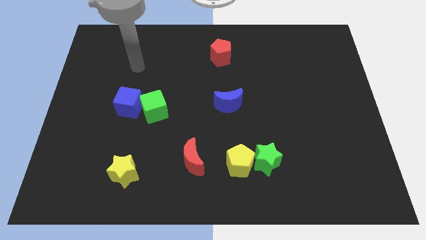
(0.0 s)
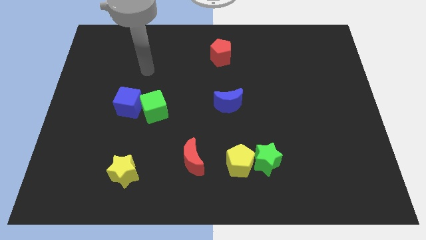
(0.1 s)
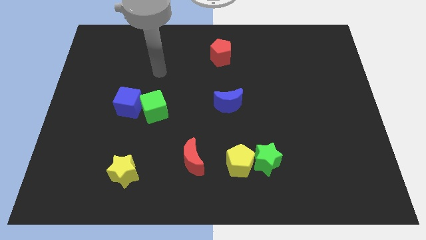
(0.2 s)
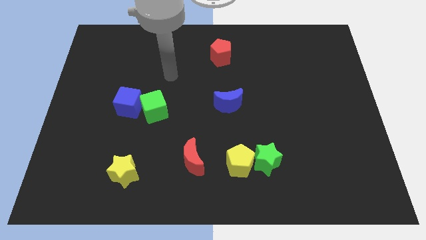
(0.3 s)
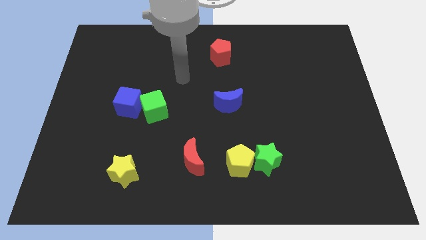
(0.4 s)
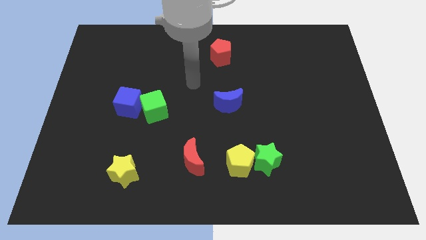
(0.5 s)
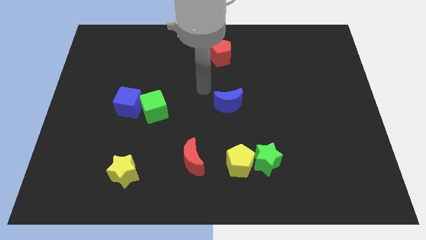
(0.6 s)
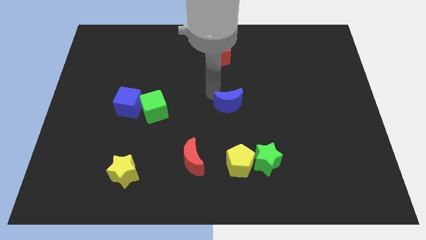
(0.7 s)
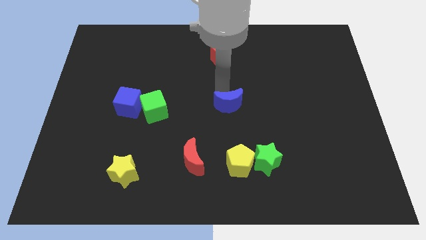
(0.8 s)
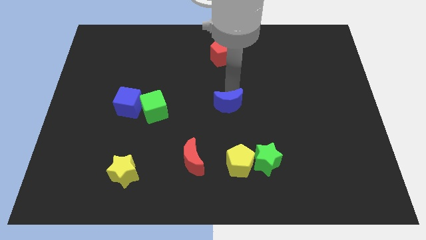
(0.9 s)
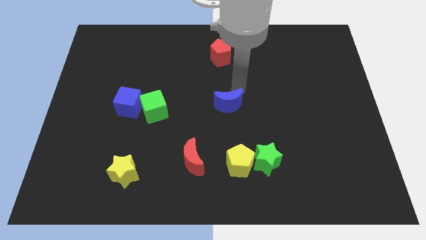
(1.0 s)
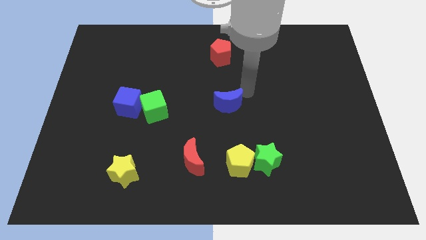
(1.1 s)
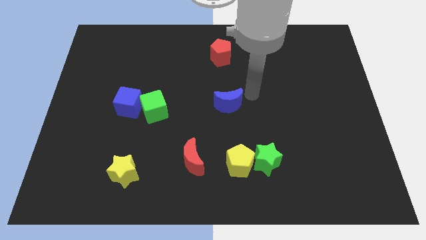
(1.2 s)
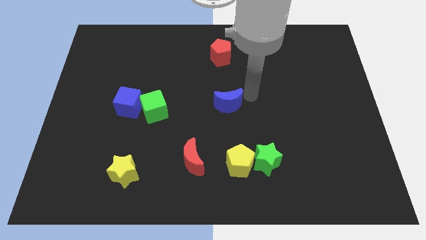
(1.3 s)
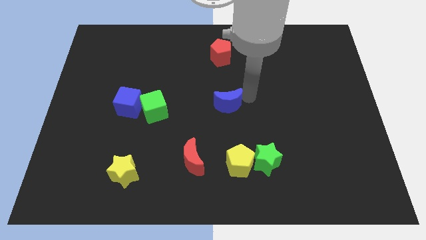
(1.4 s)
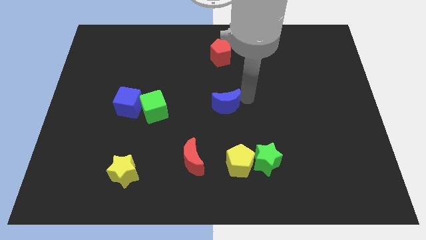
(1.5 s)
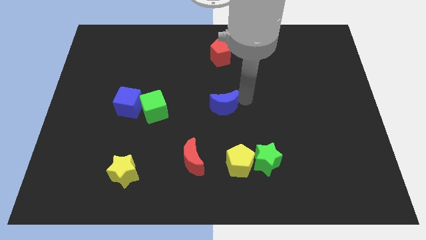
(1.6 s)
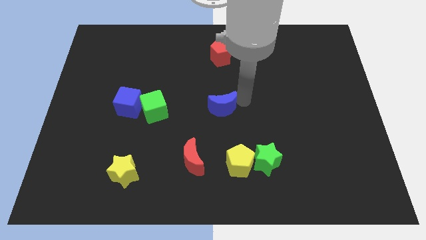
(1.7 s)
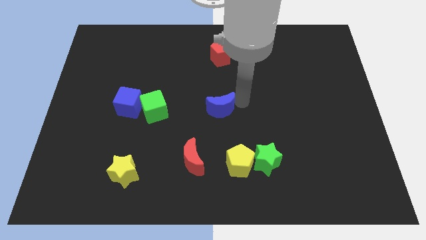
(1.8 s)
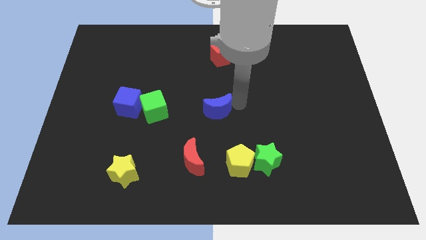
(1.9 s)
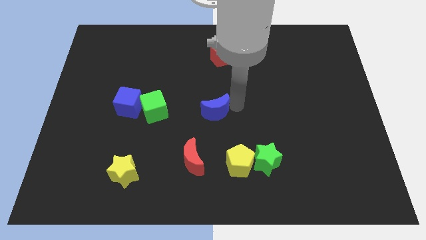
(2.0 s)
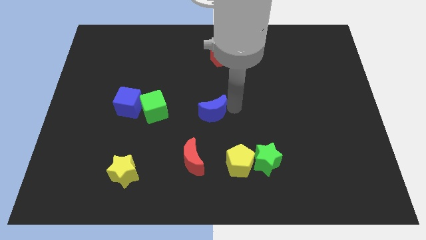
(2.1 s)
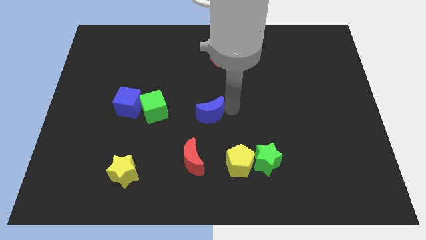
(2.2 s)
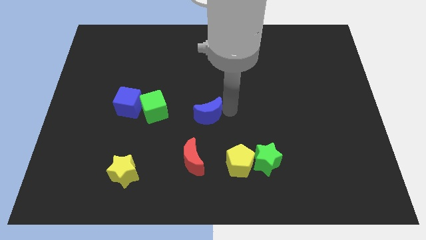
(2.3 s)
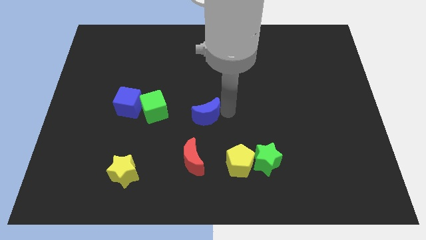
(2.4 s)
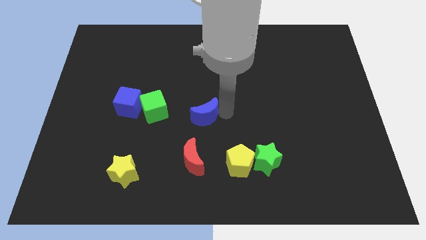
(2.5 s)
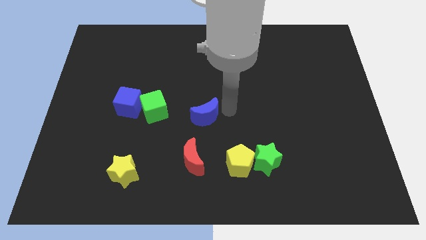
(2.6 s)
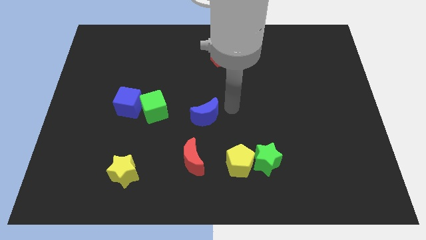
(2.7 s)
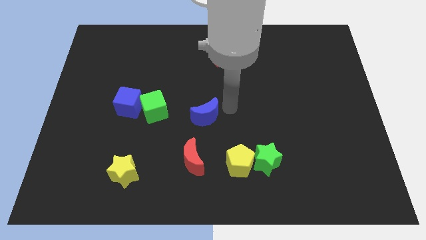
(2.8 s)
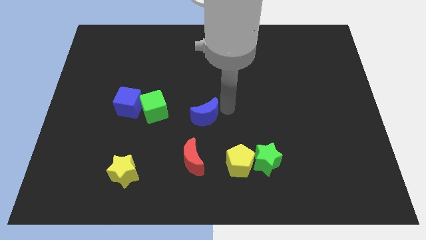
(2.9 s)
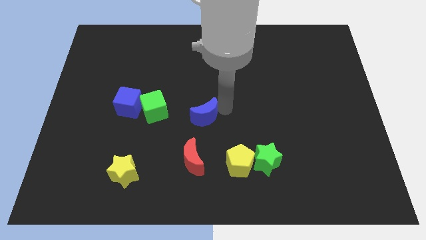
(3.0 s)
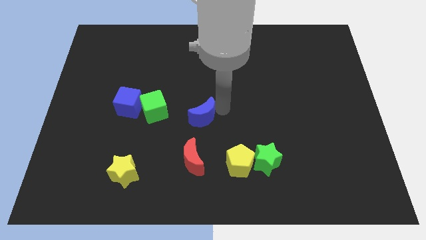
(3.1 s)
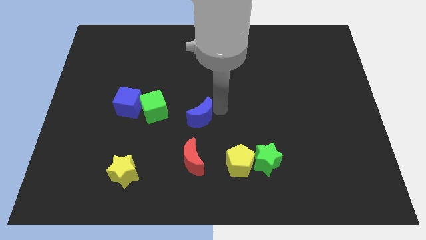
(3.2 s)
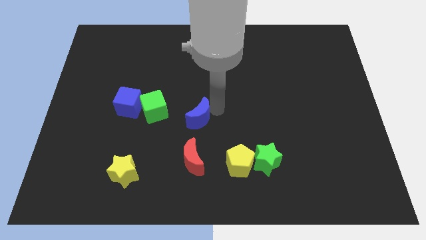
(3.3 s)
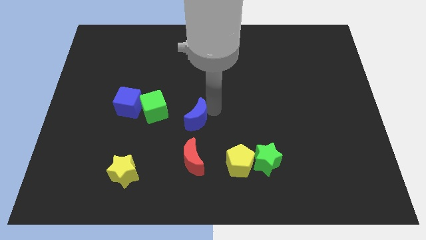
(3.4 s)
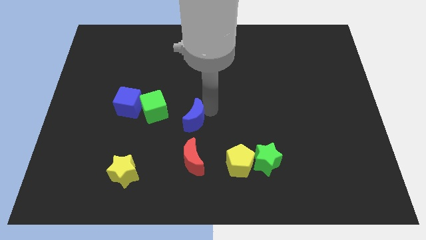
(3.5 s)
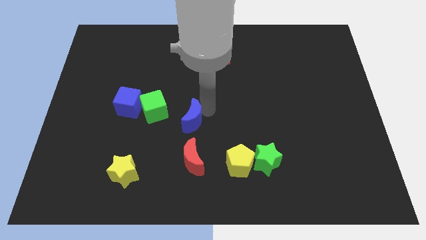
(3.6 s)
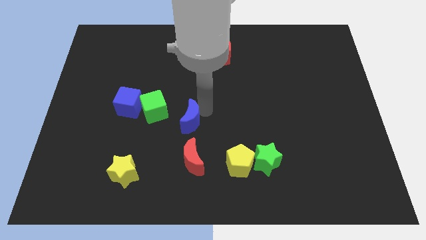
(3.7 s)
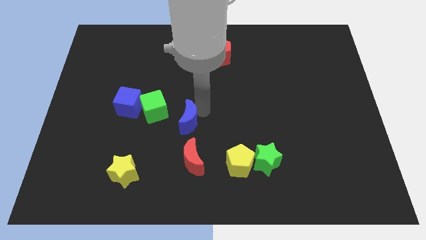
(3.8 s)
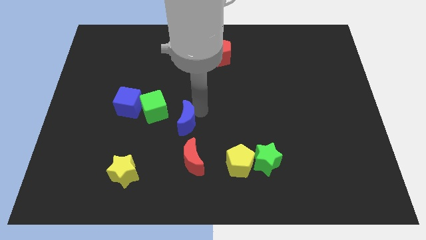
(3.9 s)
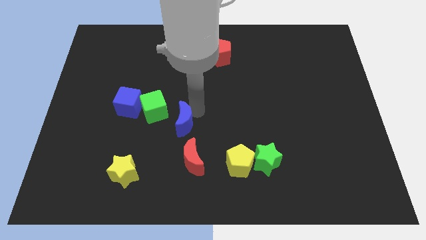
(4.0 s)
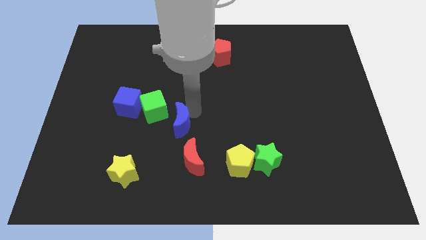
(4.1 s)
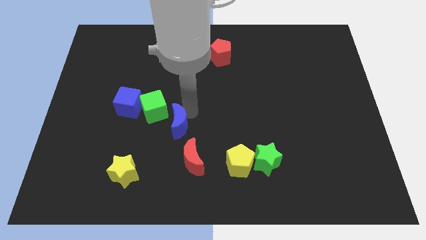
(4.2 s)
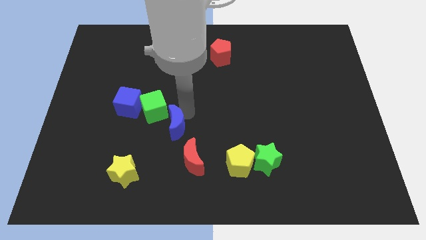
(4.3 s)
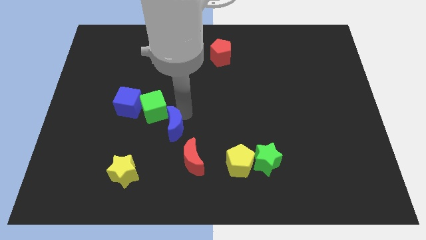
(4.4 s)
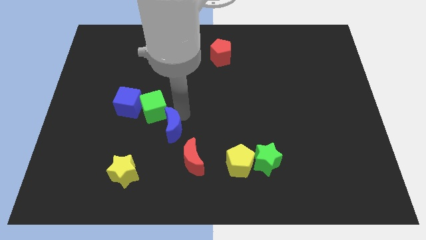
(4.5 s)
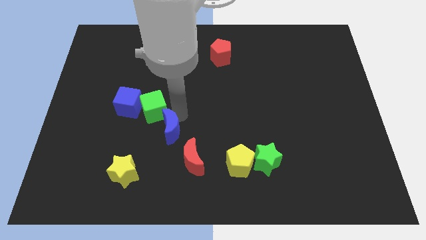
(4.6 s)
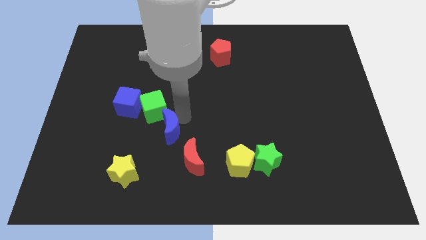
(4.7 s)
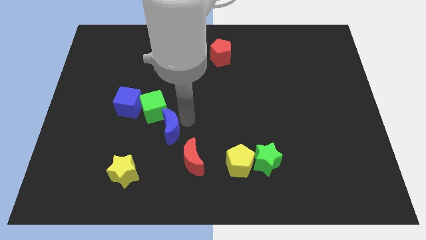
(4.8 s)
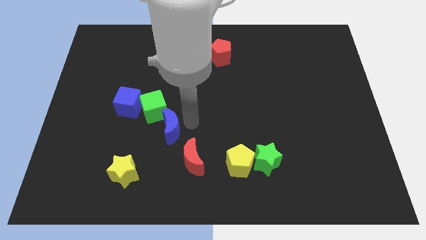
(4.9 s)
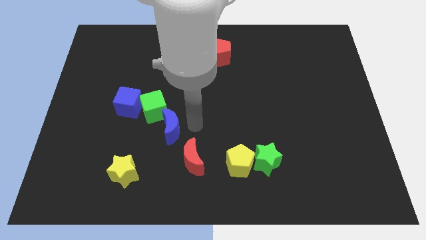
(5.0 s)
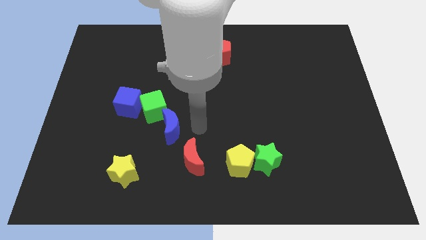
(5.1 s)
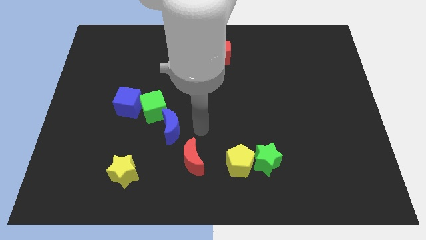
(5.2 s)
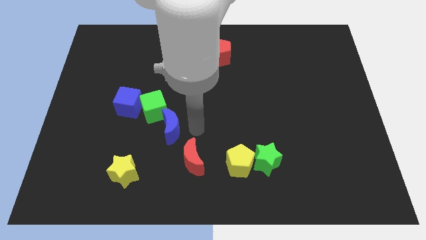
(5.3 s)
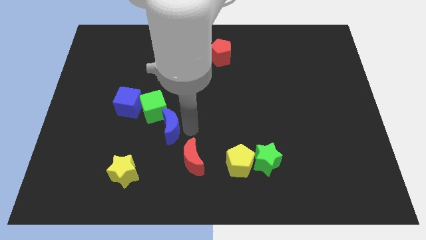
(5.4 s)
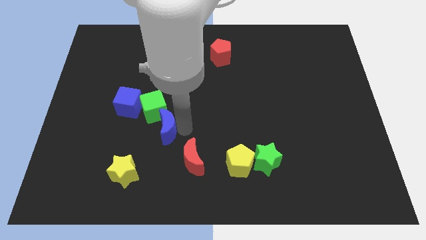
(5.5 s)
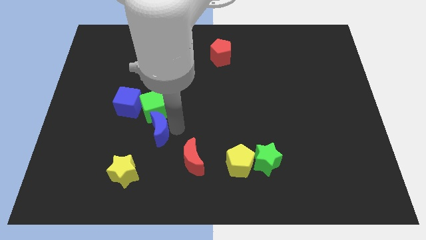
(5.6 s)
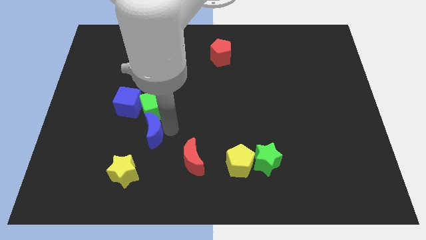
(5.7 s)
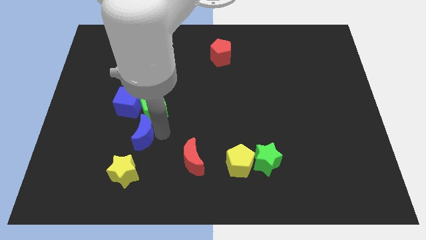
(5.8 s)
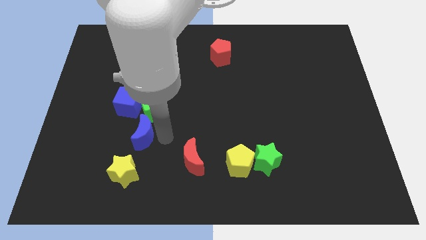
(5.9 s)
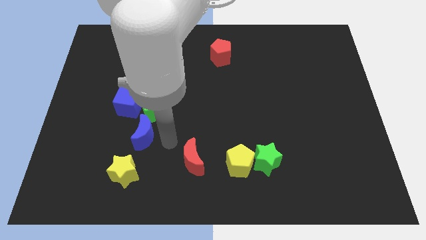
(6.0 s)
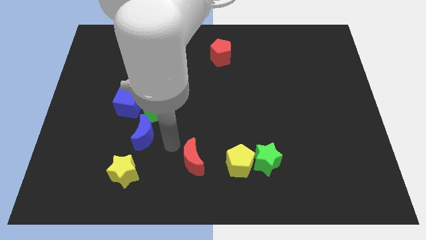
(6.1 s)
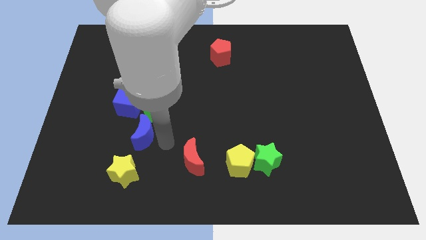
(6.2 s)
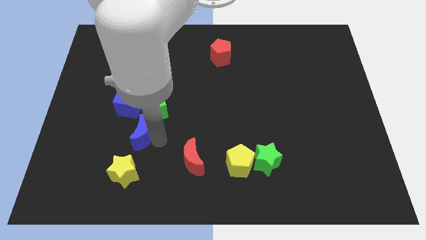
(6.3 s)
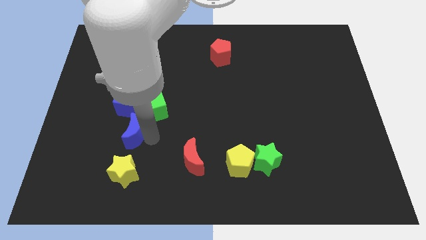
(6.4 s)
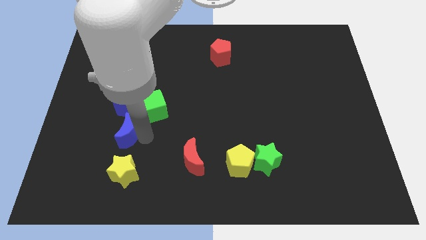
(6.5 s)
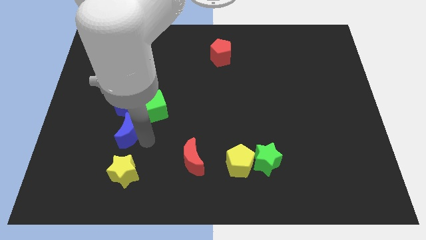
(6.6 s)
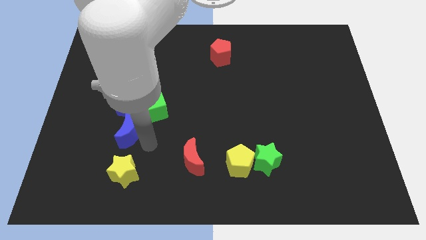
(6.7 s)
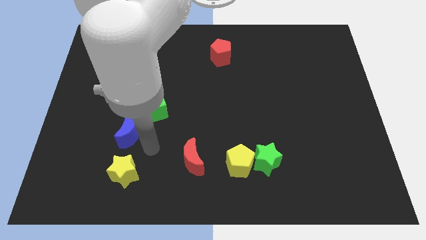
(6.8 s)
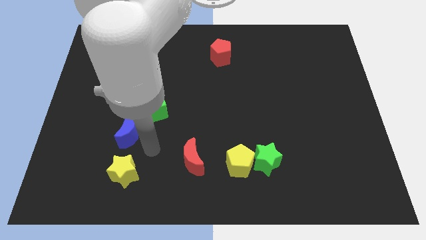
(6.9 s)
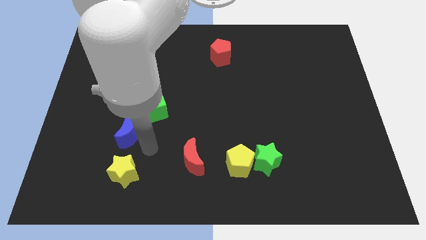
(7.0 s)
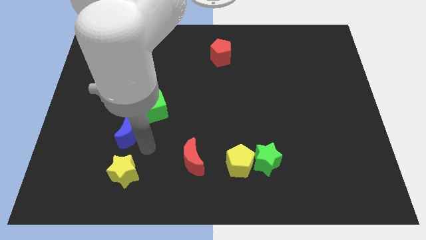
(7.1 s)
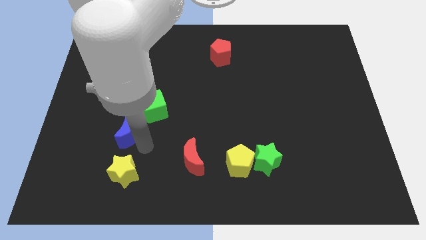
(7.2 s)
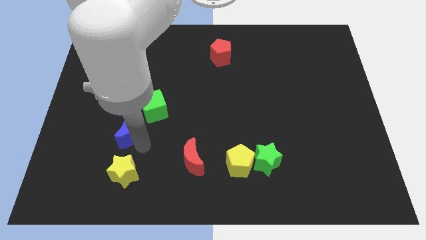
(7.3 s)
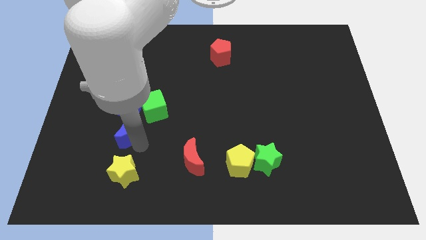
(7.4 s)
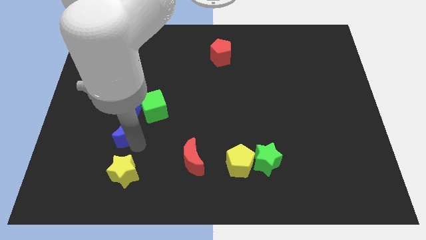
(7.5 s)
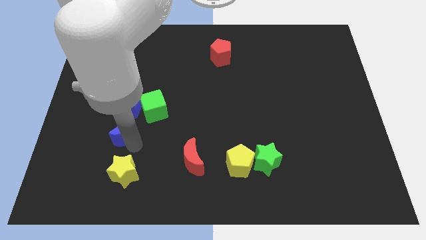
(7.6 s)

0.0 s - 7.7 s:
push the blue moon left

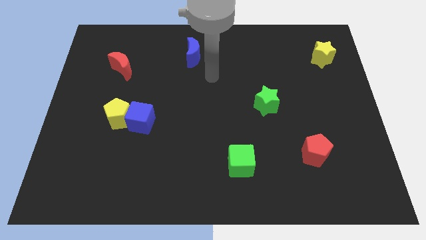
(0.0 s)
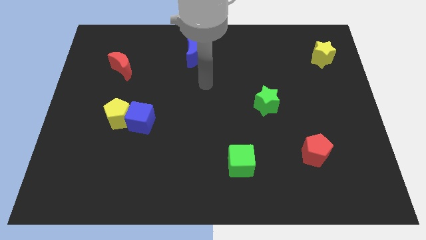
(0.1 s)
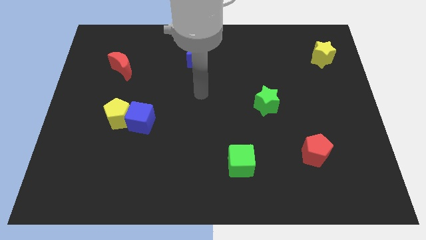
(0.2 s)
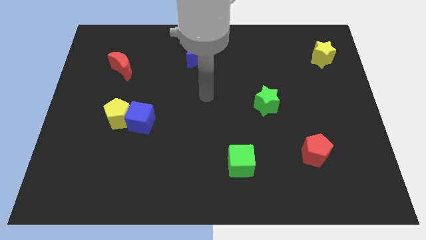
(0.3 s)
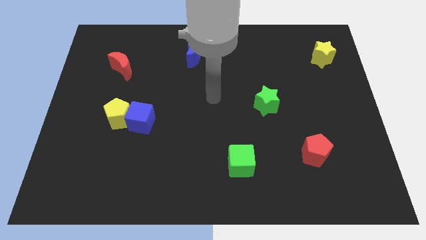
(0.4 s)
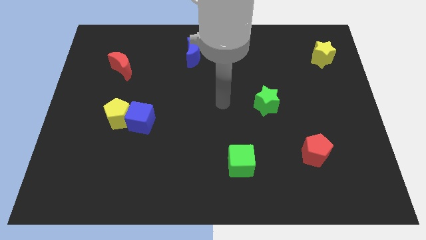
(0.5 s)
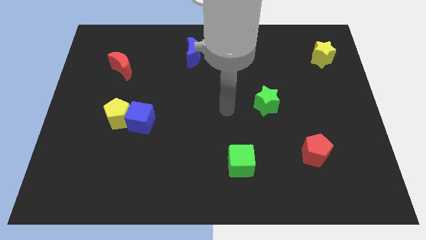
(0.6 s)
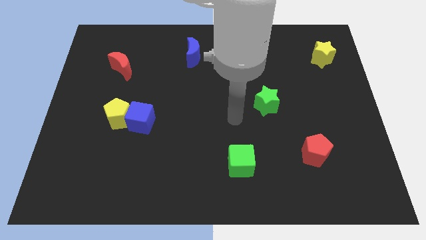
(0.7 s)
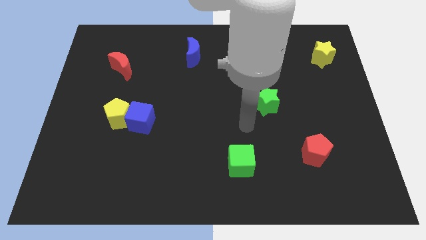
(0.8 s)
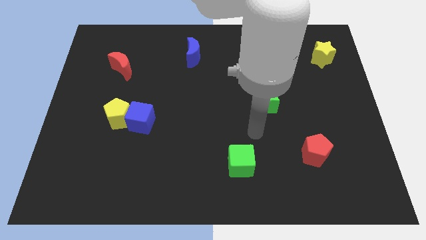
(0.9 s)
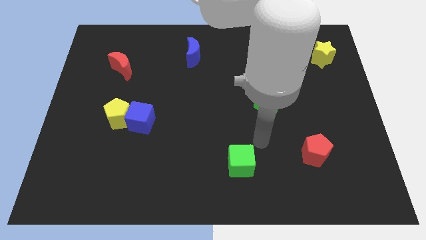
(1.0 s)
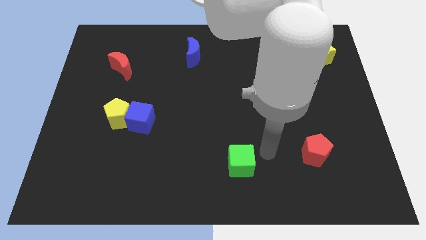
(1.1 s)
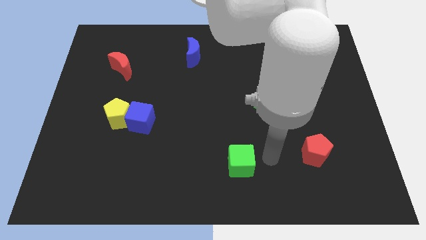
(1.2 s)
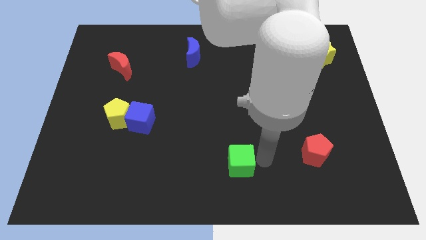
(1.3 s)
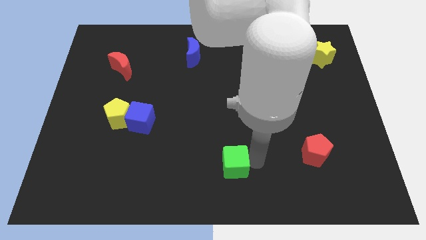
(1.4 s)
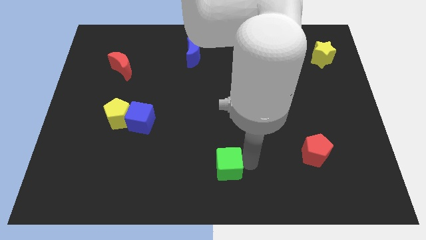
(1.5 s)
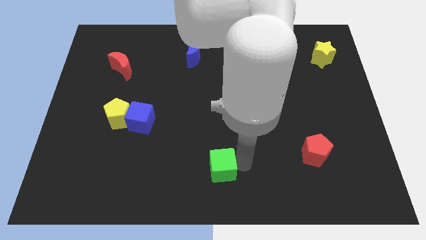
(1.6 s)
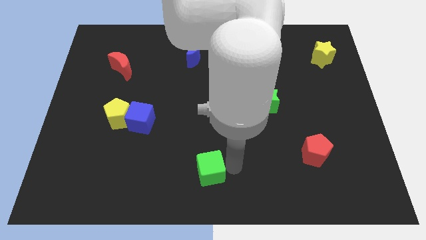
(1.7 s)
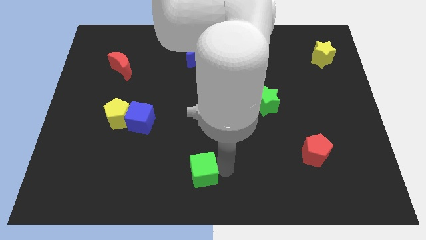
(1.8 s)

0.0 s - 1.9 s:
slightly slide the green cube to the left
